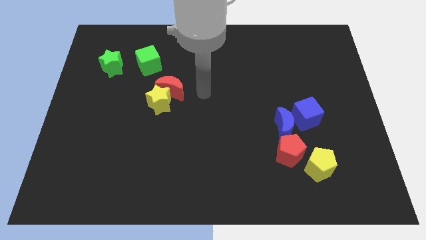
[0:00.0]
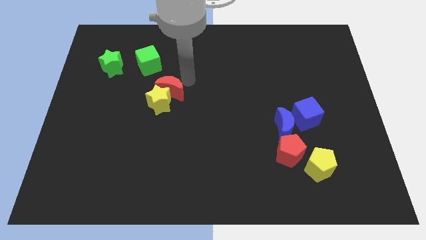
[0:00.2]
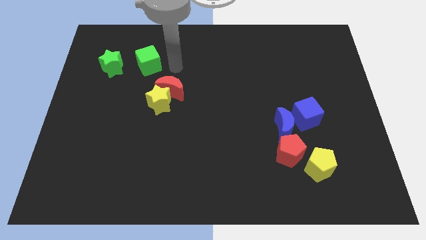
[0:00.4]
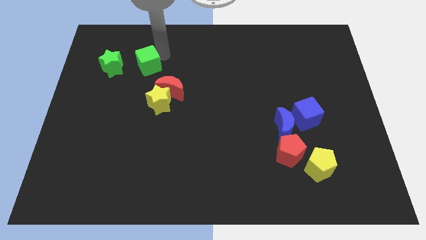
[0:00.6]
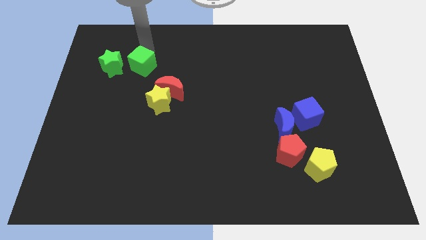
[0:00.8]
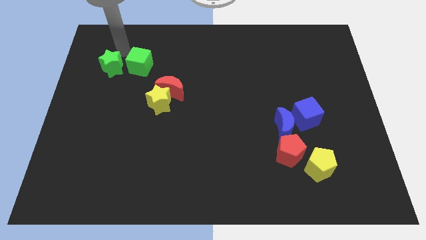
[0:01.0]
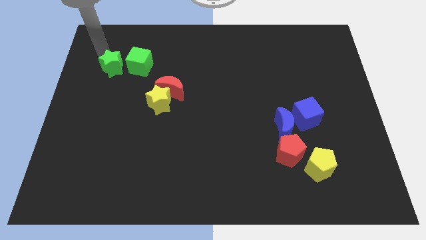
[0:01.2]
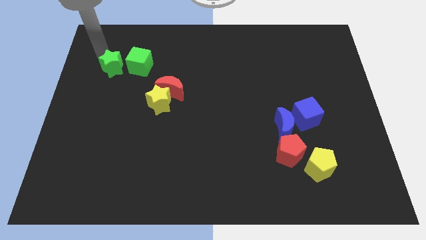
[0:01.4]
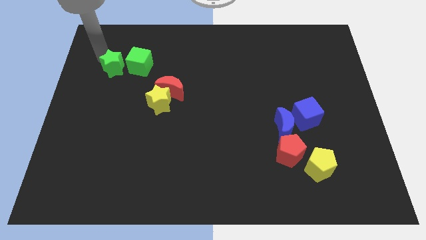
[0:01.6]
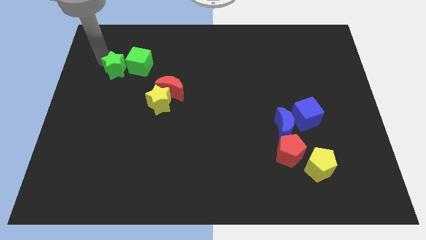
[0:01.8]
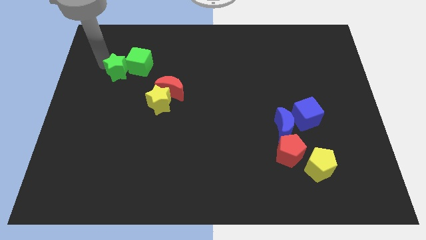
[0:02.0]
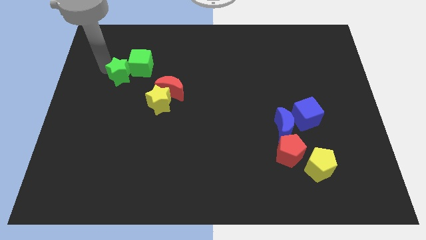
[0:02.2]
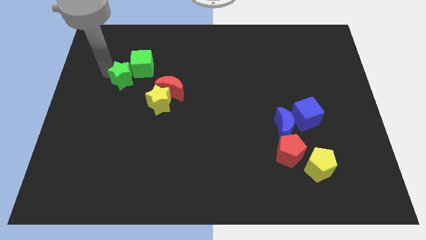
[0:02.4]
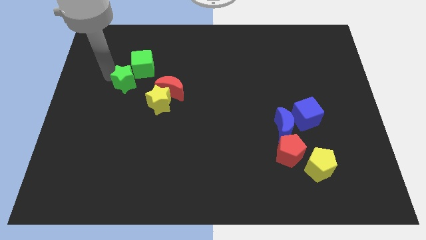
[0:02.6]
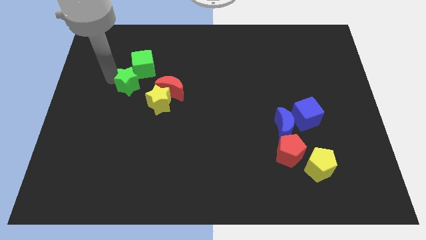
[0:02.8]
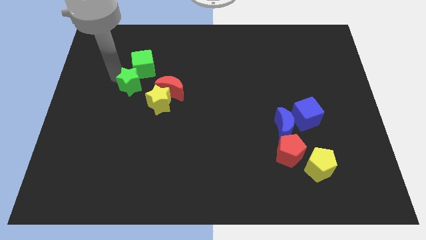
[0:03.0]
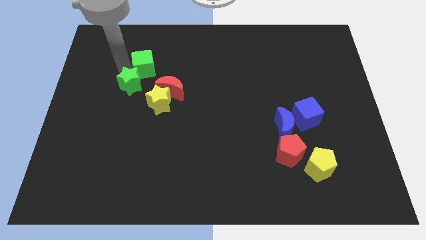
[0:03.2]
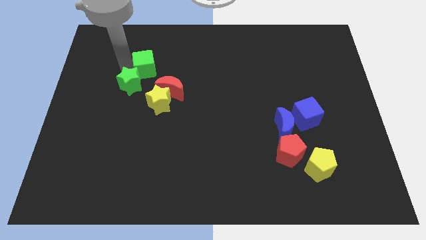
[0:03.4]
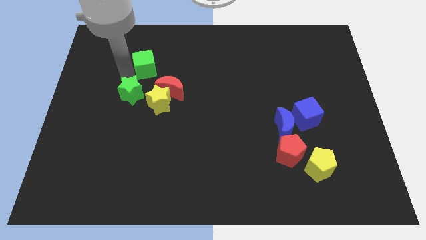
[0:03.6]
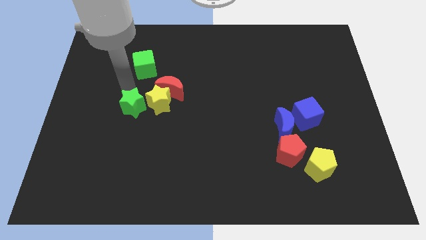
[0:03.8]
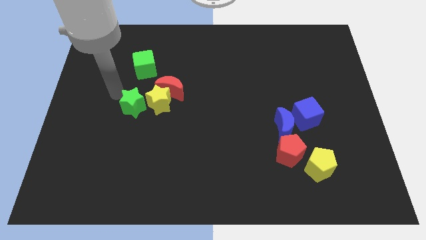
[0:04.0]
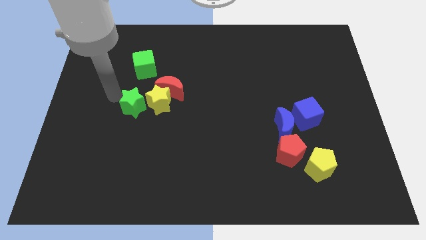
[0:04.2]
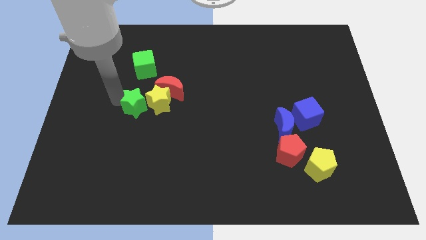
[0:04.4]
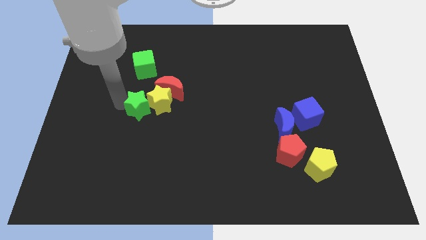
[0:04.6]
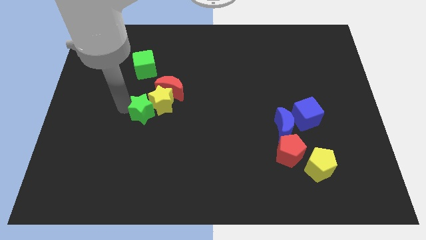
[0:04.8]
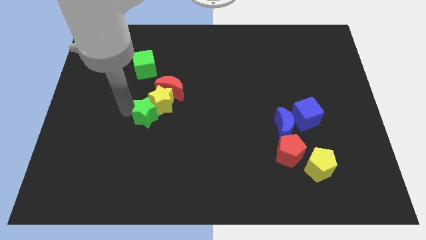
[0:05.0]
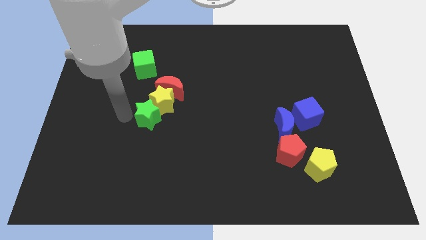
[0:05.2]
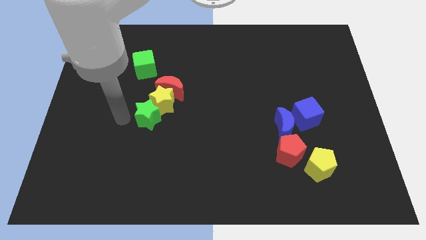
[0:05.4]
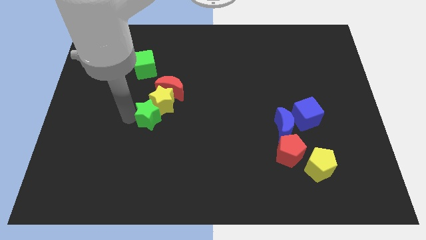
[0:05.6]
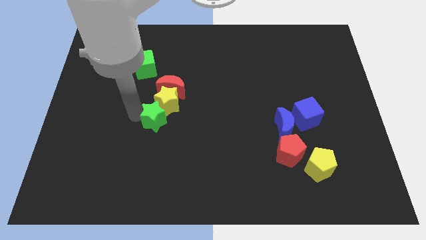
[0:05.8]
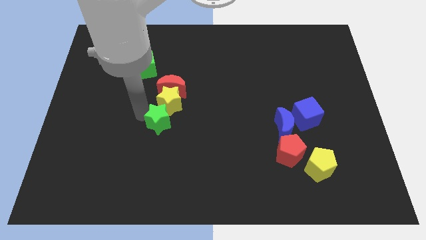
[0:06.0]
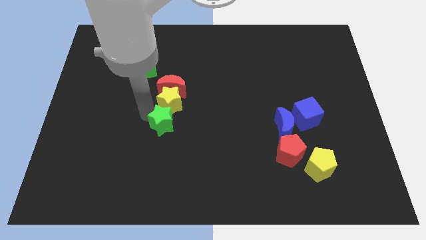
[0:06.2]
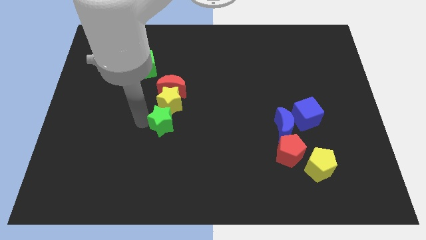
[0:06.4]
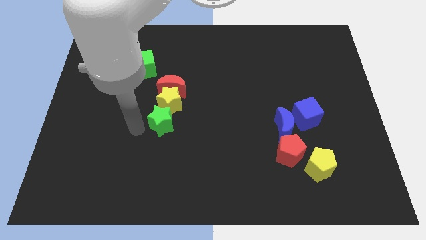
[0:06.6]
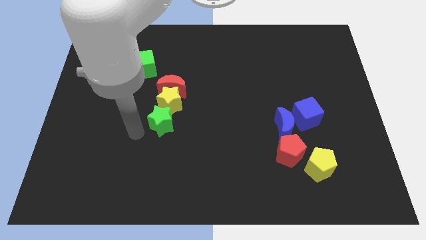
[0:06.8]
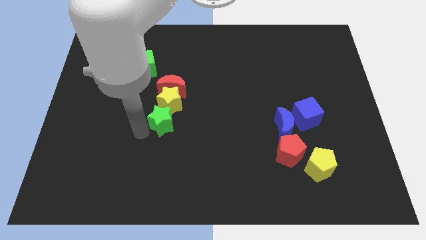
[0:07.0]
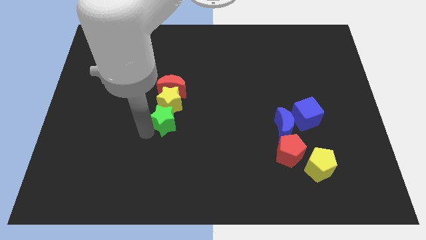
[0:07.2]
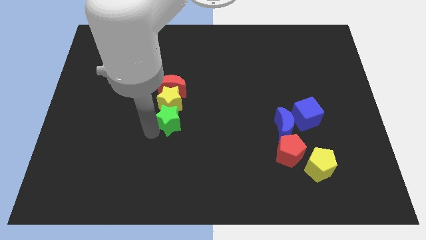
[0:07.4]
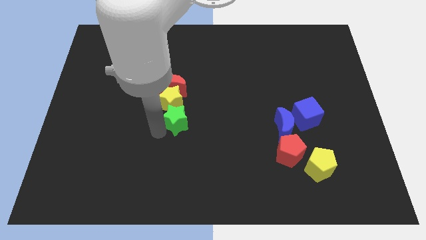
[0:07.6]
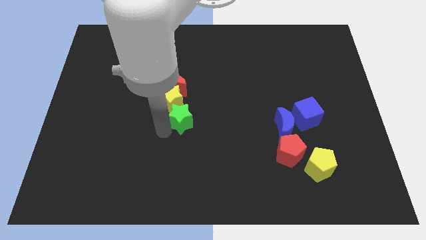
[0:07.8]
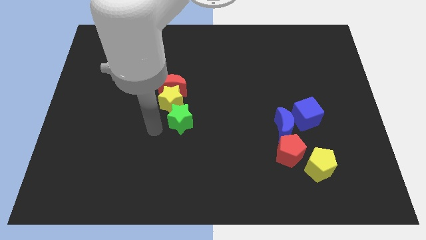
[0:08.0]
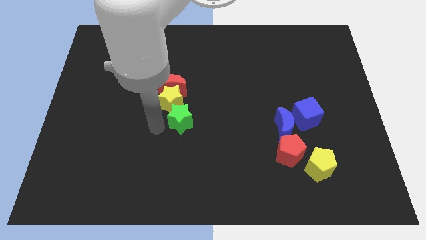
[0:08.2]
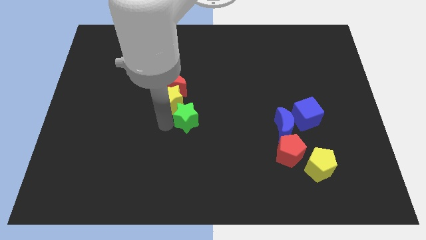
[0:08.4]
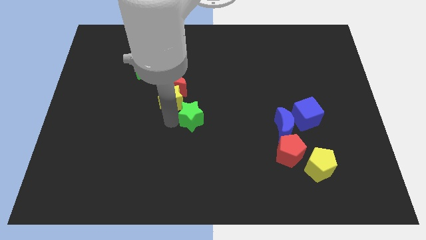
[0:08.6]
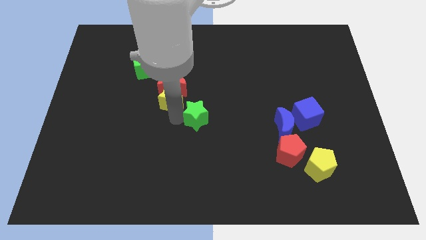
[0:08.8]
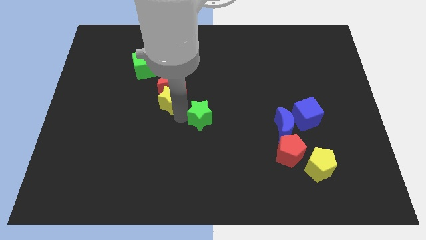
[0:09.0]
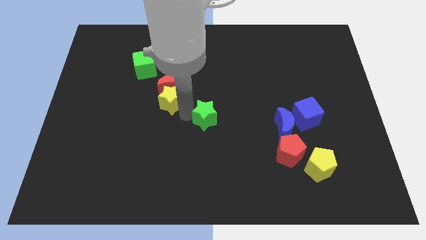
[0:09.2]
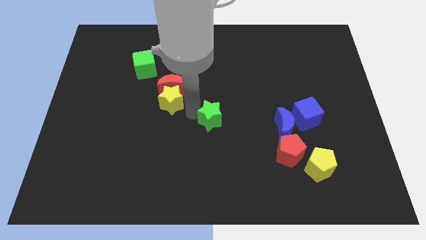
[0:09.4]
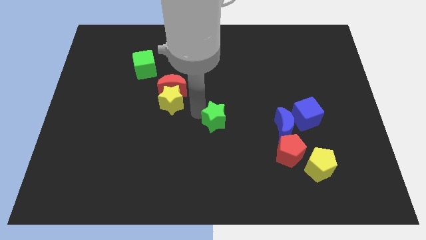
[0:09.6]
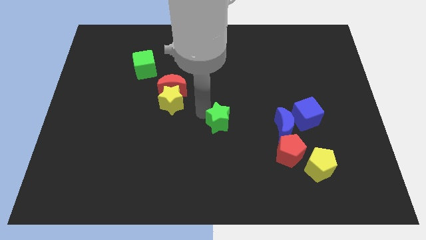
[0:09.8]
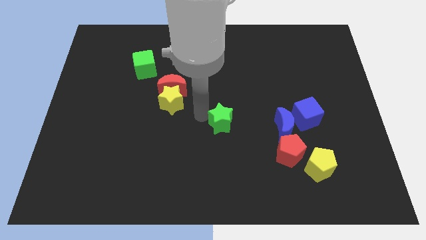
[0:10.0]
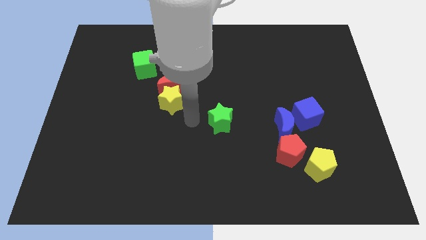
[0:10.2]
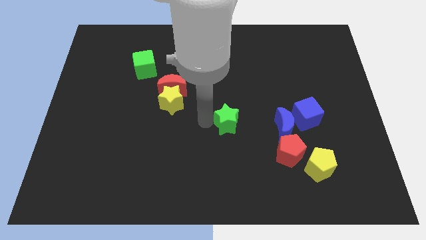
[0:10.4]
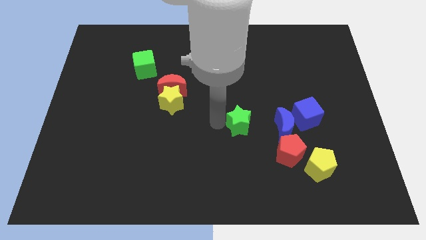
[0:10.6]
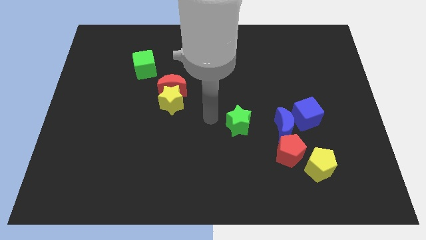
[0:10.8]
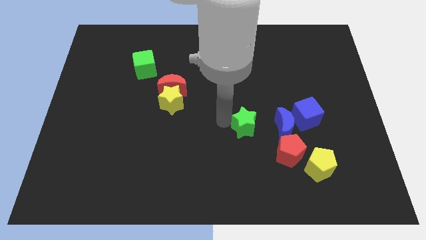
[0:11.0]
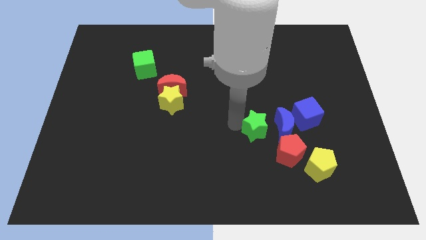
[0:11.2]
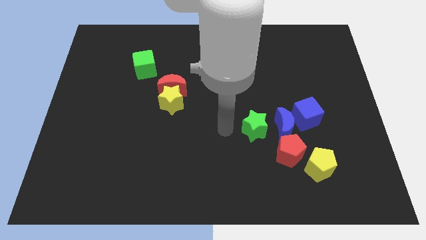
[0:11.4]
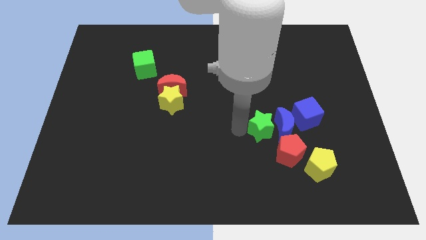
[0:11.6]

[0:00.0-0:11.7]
slide the green star towards the blue moon
